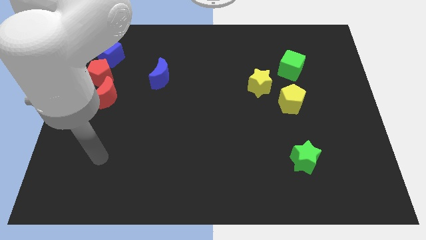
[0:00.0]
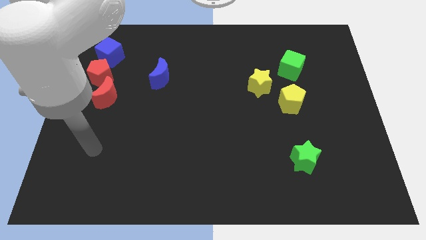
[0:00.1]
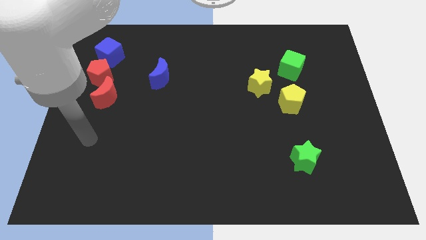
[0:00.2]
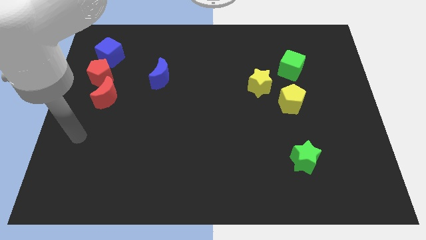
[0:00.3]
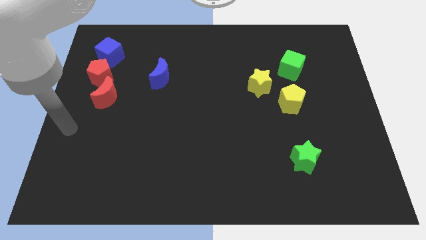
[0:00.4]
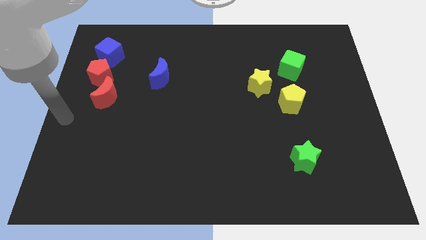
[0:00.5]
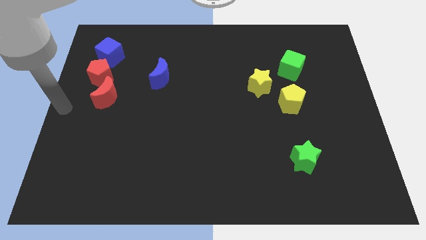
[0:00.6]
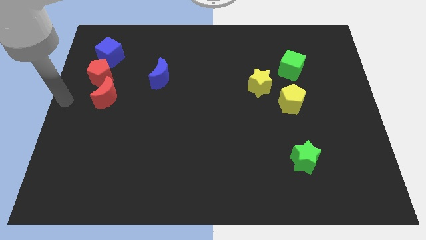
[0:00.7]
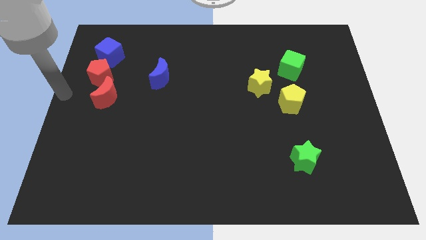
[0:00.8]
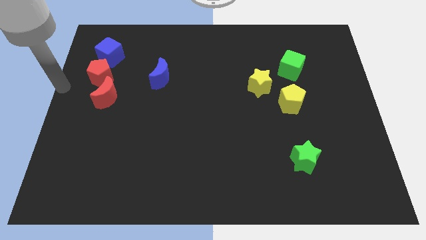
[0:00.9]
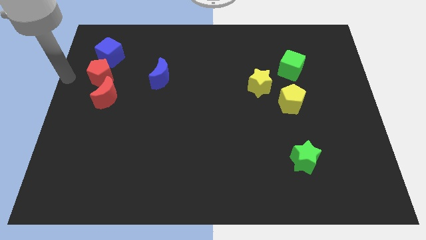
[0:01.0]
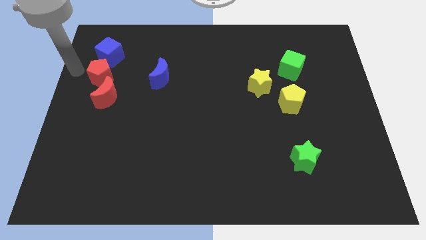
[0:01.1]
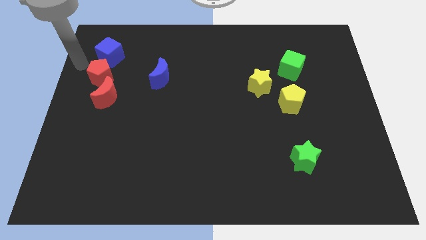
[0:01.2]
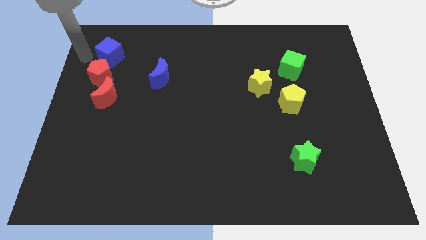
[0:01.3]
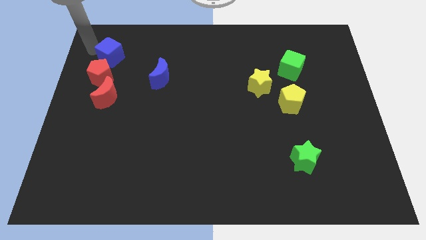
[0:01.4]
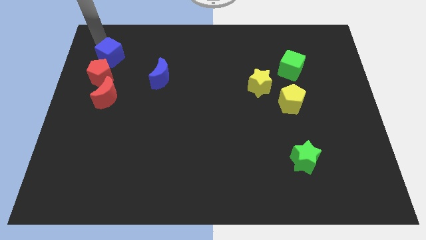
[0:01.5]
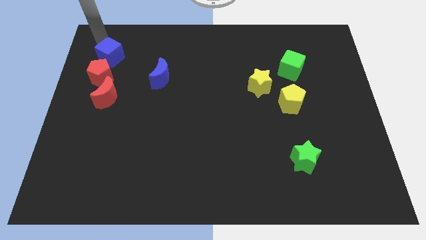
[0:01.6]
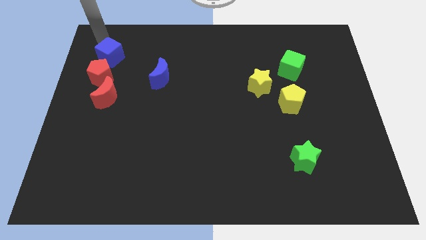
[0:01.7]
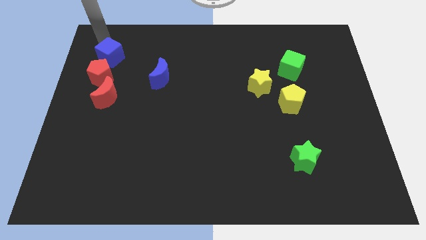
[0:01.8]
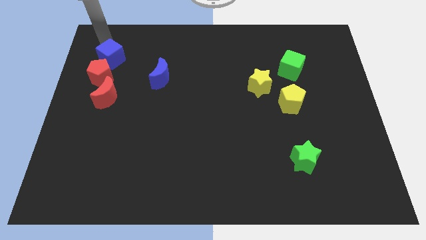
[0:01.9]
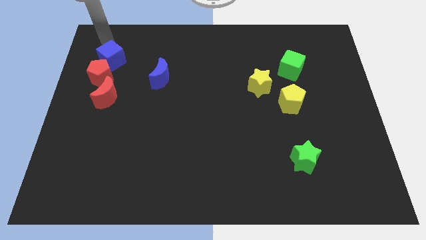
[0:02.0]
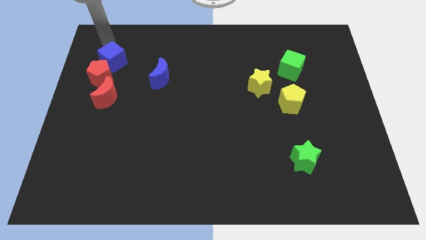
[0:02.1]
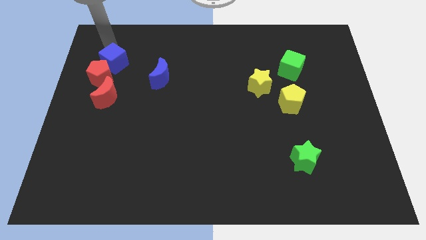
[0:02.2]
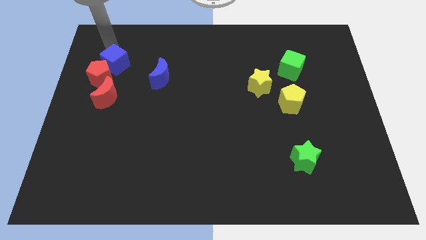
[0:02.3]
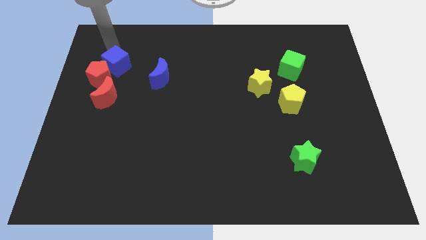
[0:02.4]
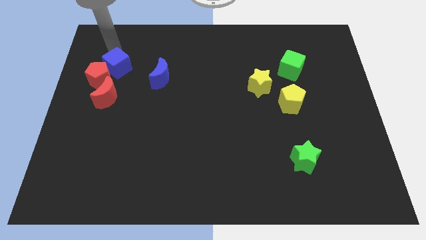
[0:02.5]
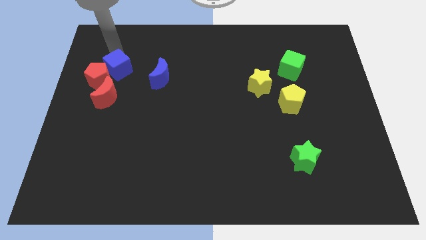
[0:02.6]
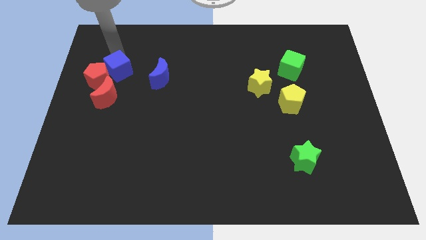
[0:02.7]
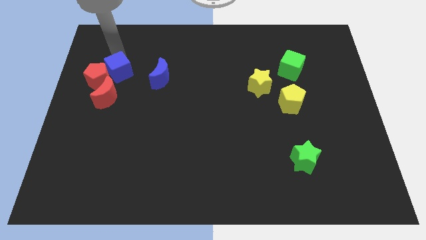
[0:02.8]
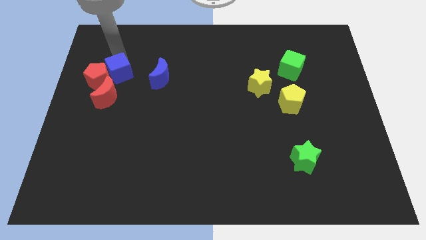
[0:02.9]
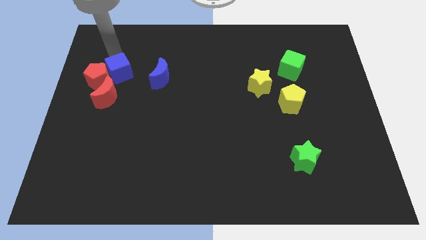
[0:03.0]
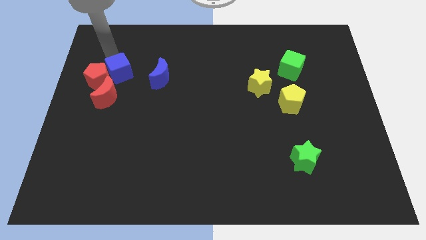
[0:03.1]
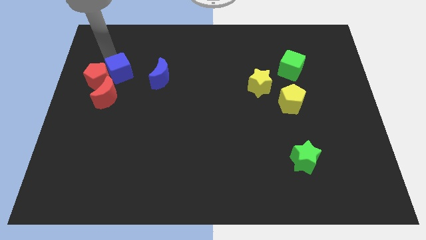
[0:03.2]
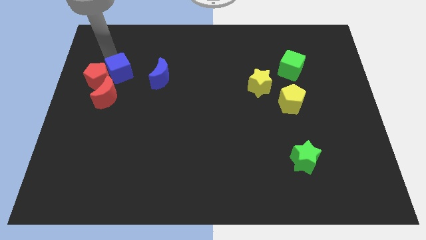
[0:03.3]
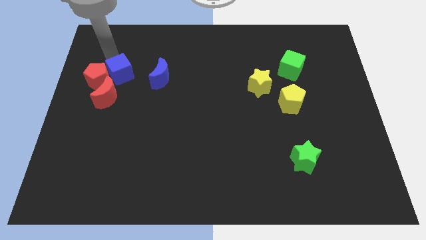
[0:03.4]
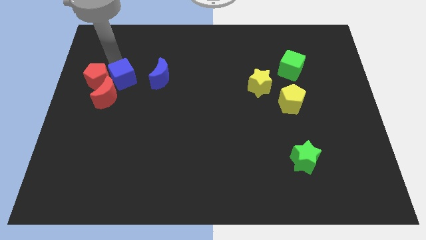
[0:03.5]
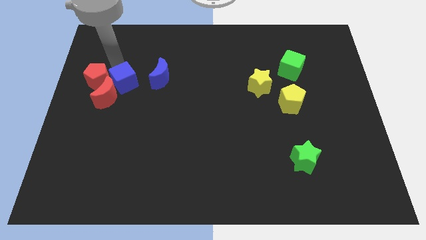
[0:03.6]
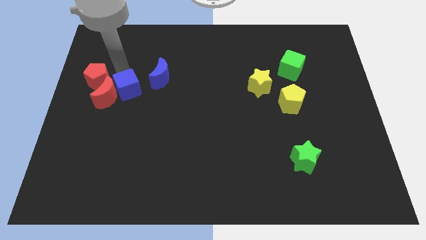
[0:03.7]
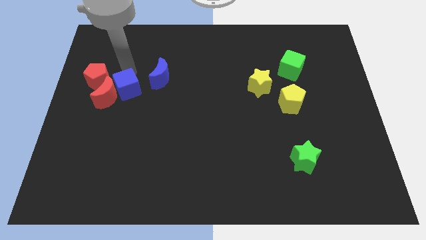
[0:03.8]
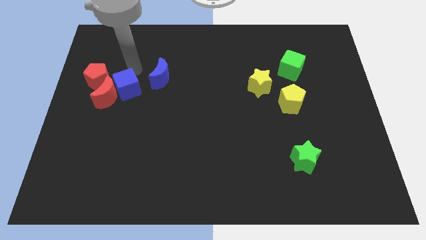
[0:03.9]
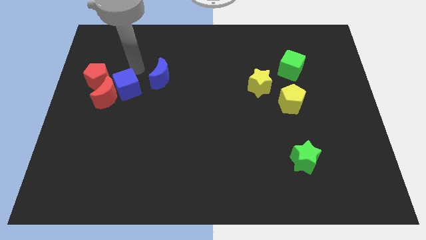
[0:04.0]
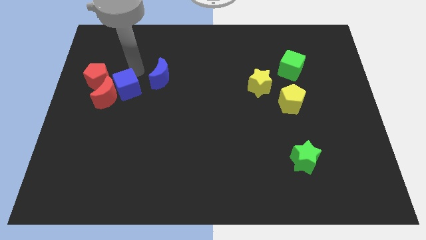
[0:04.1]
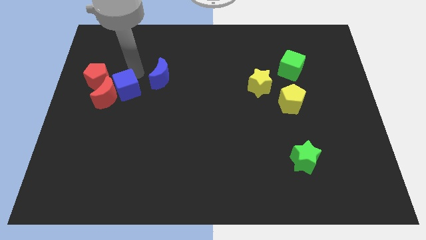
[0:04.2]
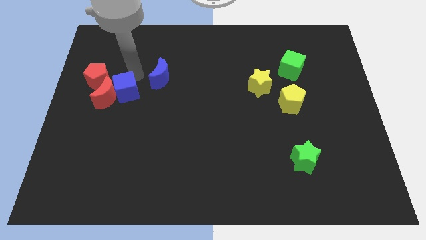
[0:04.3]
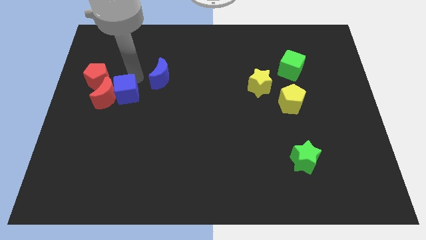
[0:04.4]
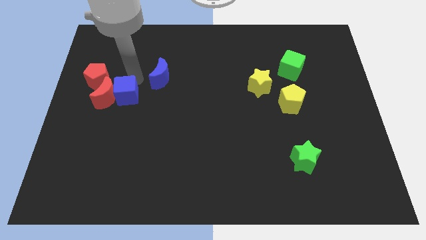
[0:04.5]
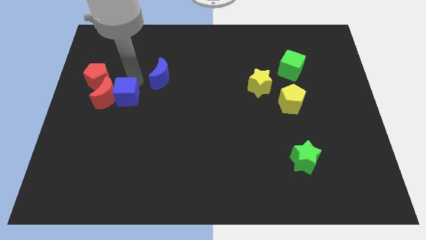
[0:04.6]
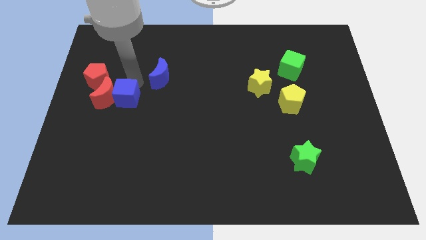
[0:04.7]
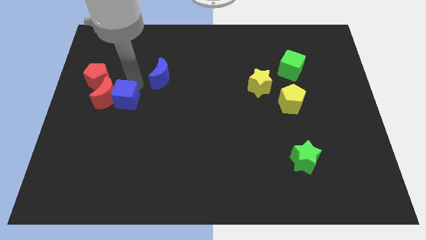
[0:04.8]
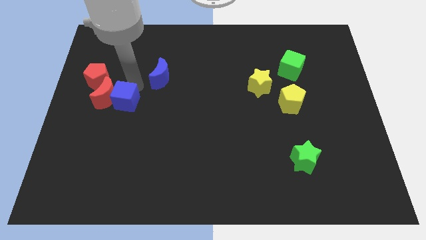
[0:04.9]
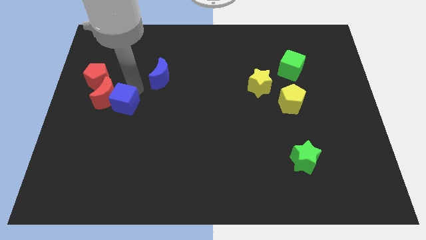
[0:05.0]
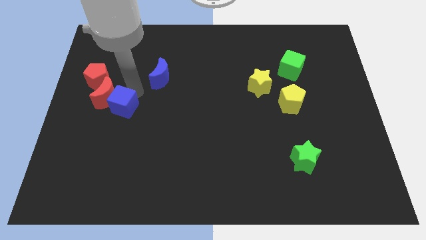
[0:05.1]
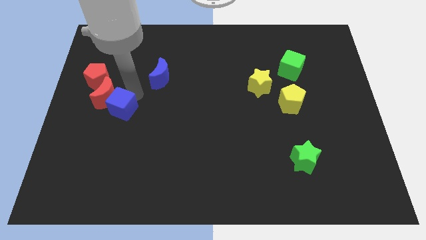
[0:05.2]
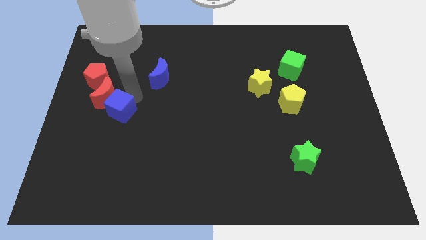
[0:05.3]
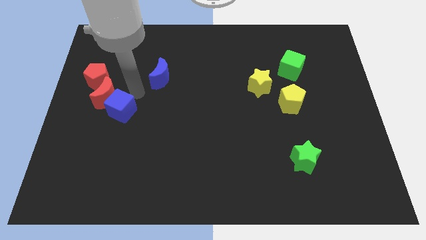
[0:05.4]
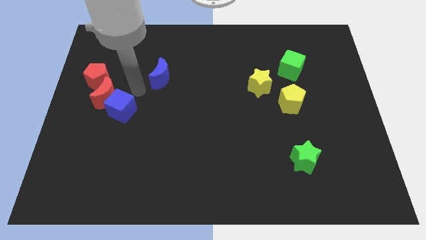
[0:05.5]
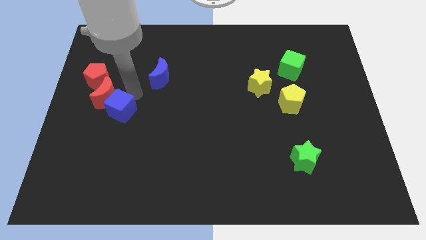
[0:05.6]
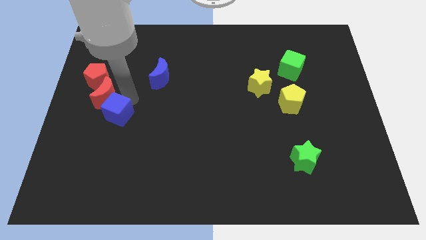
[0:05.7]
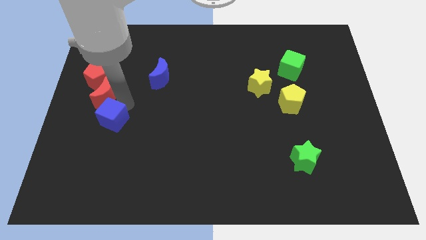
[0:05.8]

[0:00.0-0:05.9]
push the blue cube down

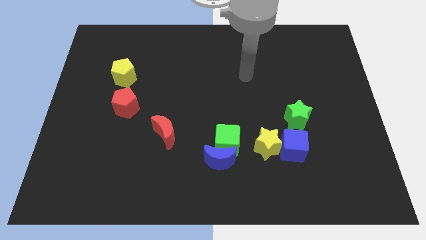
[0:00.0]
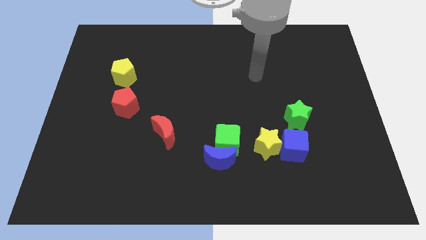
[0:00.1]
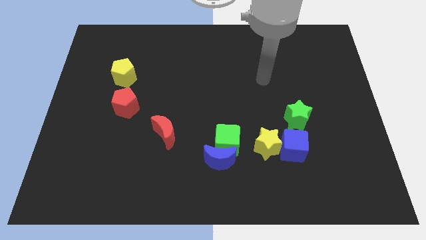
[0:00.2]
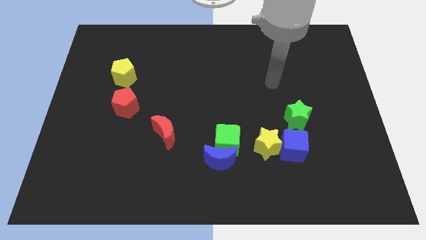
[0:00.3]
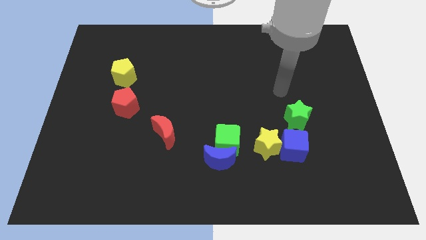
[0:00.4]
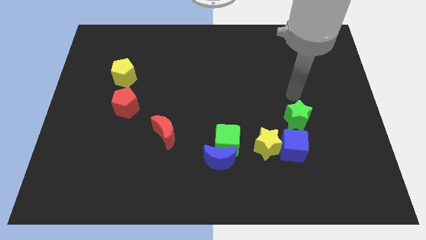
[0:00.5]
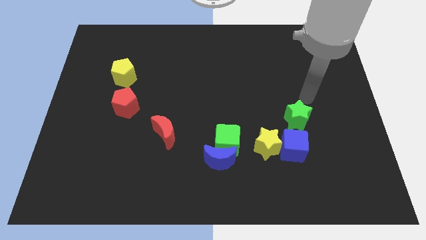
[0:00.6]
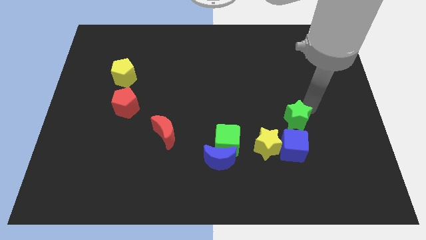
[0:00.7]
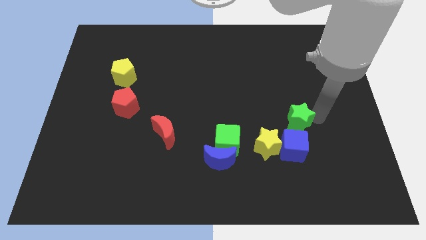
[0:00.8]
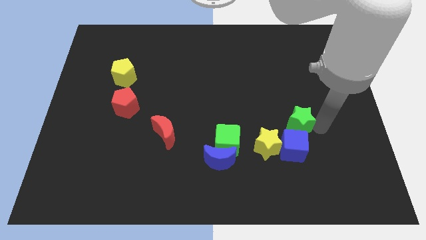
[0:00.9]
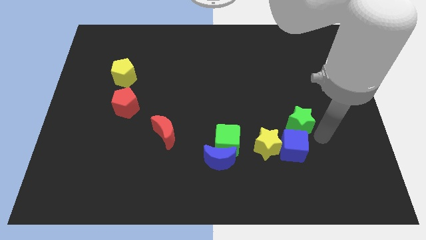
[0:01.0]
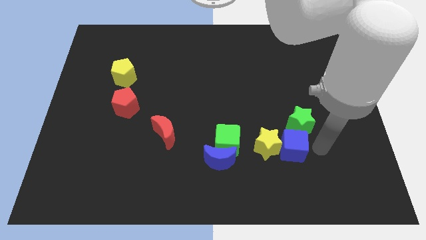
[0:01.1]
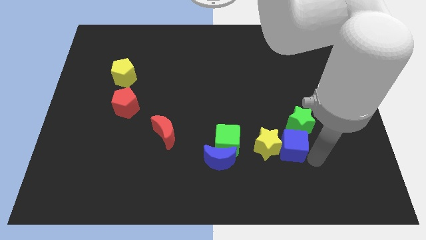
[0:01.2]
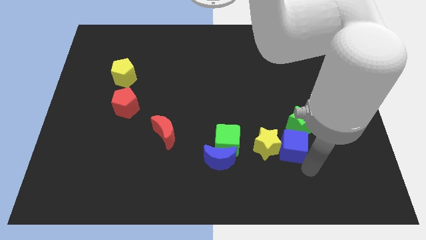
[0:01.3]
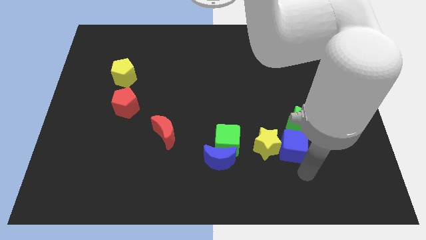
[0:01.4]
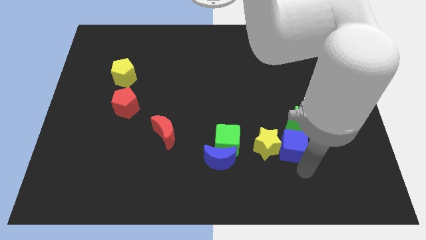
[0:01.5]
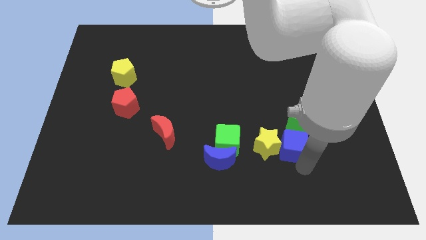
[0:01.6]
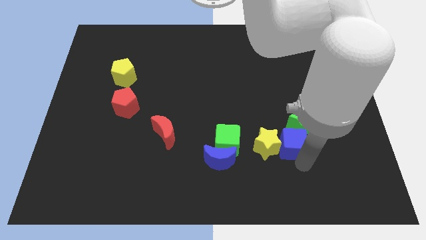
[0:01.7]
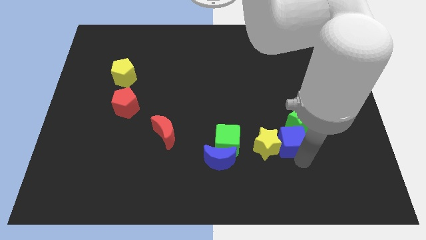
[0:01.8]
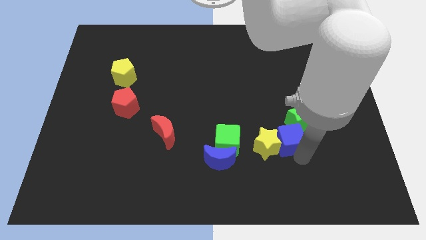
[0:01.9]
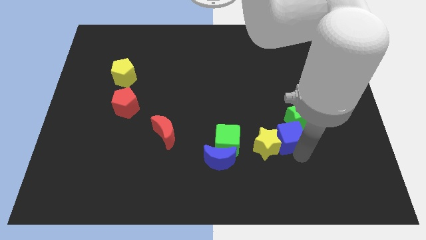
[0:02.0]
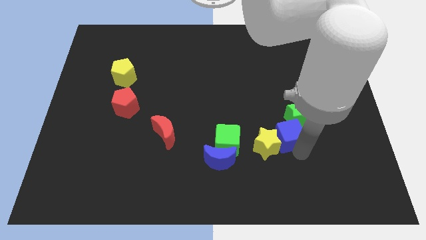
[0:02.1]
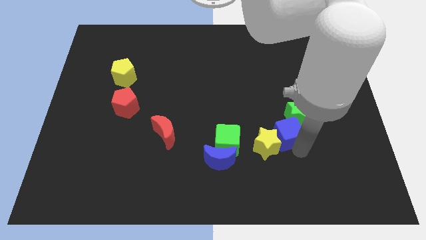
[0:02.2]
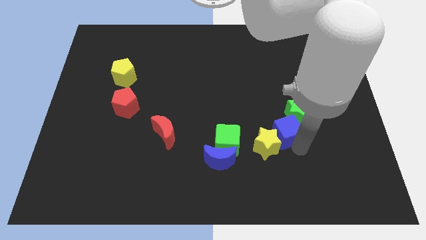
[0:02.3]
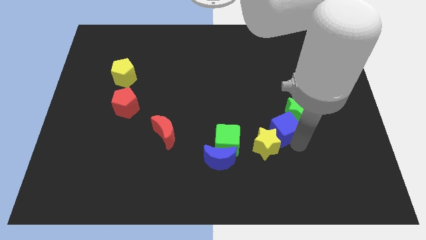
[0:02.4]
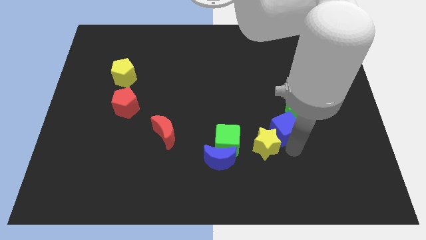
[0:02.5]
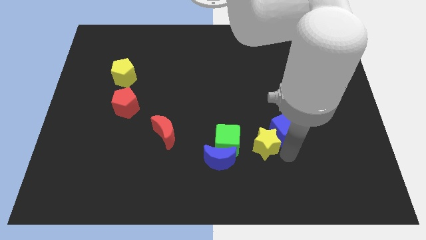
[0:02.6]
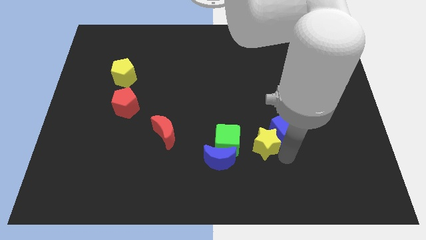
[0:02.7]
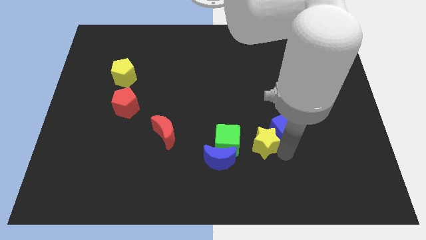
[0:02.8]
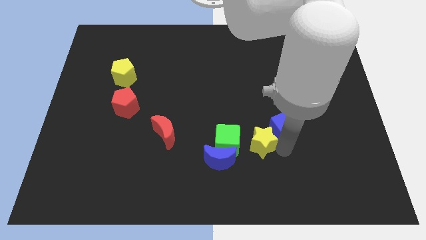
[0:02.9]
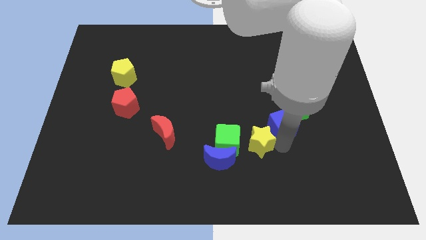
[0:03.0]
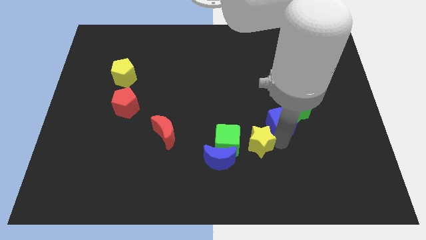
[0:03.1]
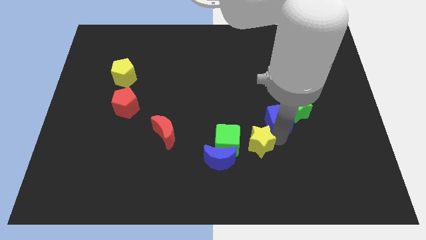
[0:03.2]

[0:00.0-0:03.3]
push the blue cube a little up
